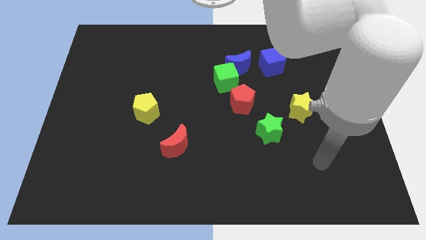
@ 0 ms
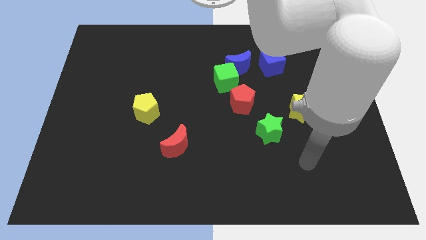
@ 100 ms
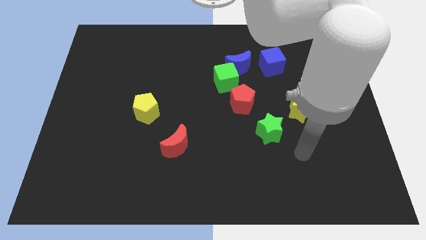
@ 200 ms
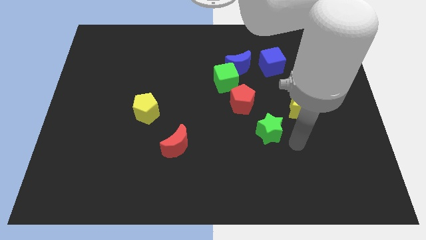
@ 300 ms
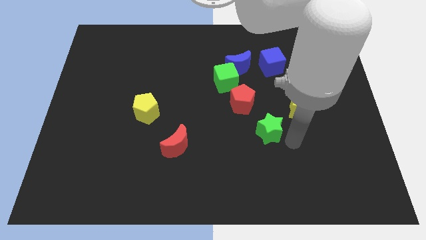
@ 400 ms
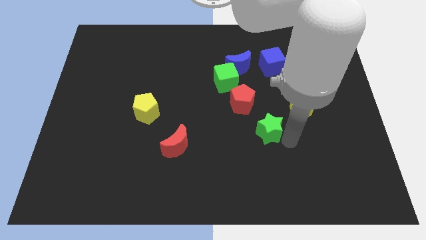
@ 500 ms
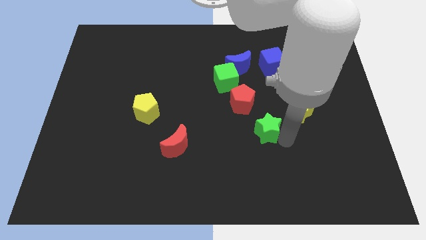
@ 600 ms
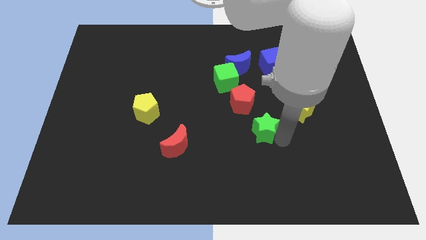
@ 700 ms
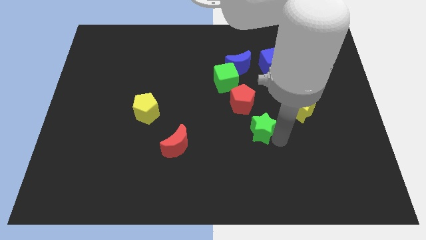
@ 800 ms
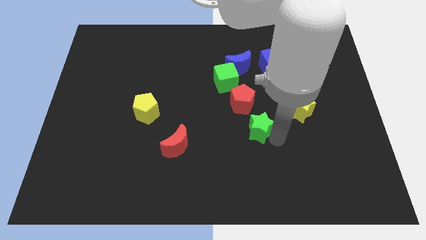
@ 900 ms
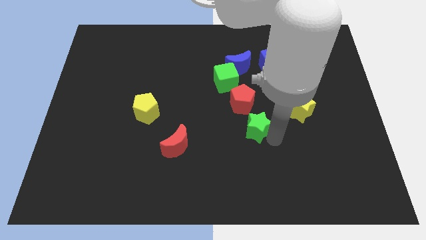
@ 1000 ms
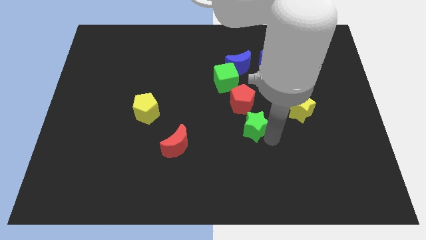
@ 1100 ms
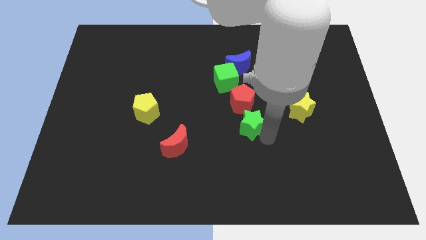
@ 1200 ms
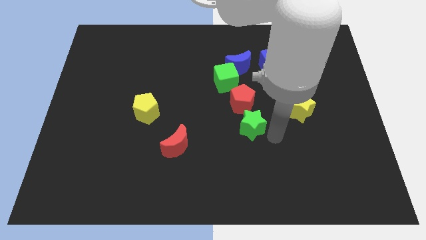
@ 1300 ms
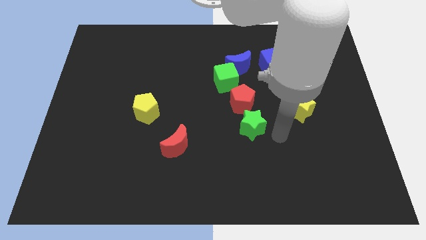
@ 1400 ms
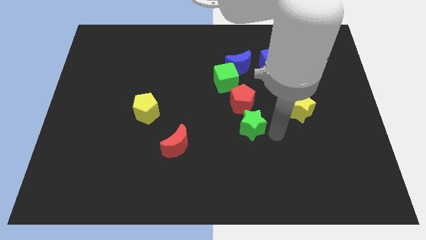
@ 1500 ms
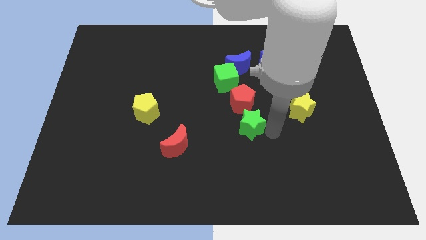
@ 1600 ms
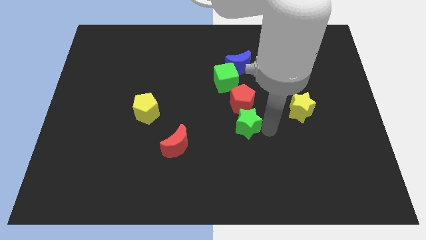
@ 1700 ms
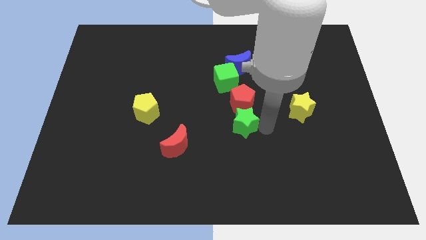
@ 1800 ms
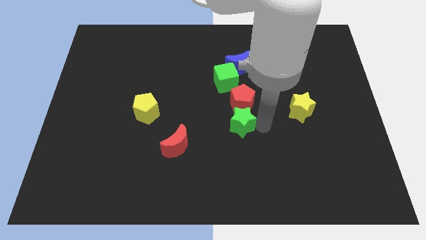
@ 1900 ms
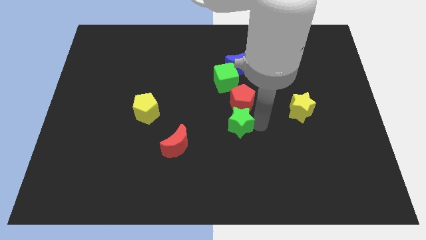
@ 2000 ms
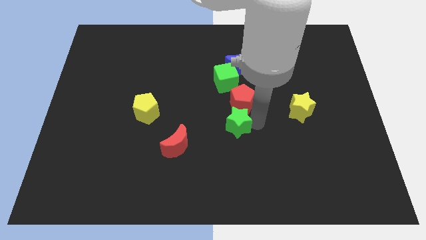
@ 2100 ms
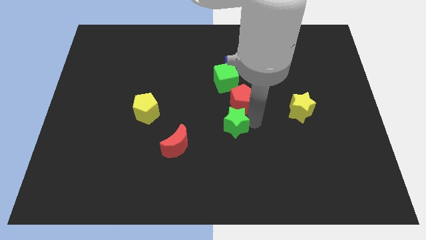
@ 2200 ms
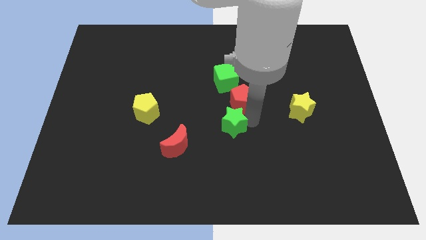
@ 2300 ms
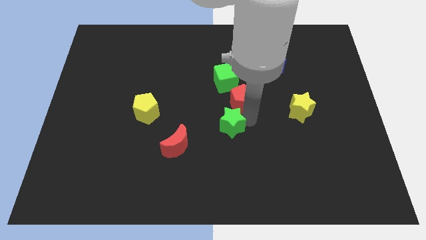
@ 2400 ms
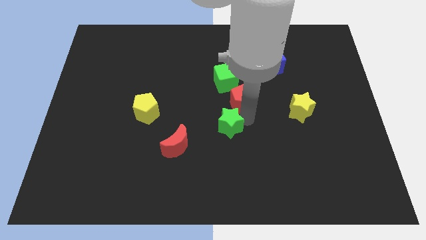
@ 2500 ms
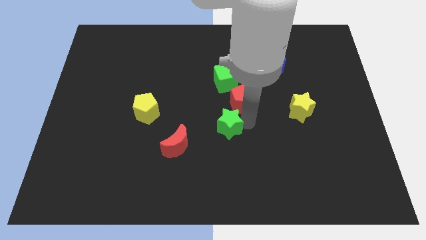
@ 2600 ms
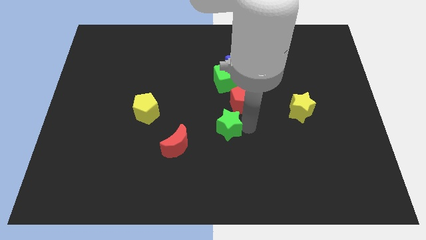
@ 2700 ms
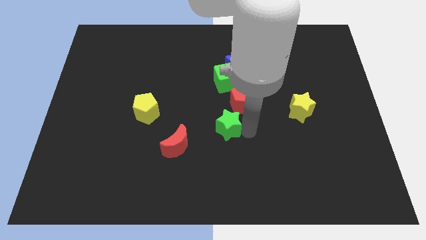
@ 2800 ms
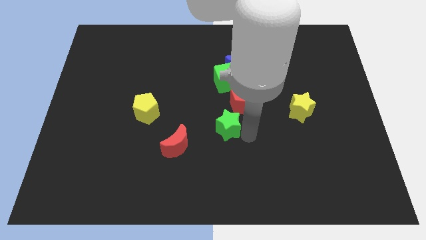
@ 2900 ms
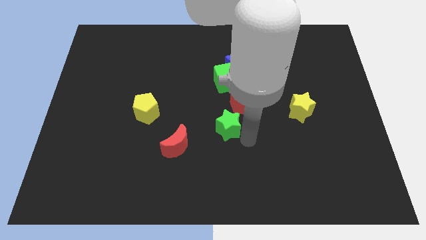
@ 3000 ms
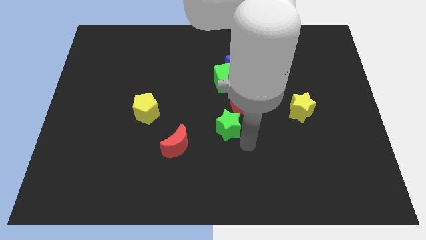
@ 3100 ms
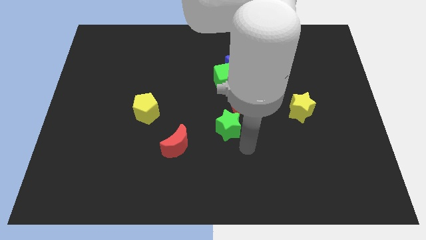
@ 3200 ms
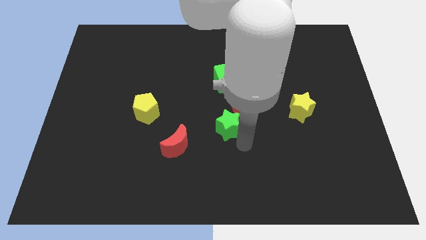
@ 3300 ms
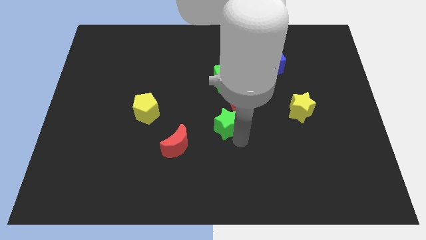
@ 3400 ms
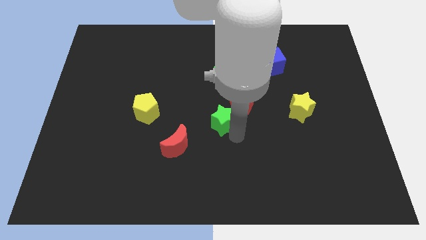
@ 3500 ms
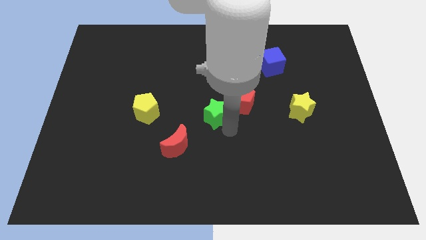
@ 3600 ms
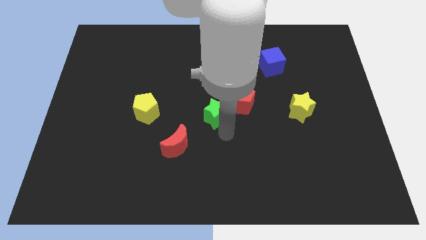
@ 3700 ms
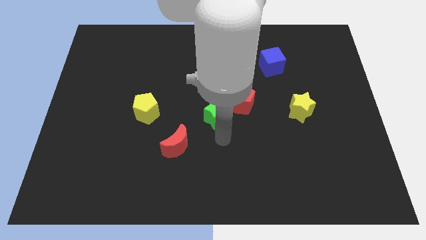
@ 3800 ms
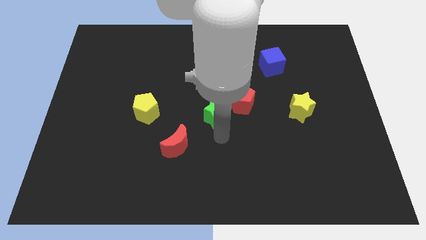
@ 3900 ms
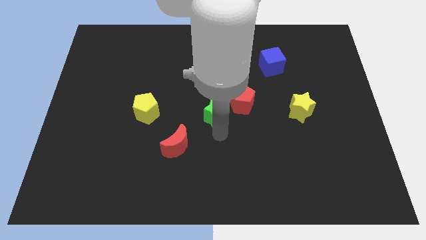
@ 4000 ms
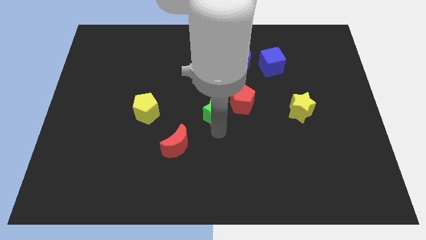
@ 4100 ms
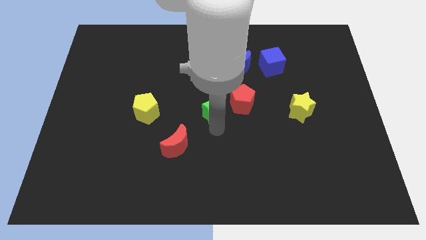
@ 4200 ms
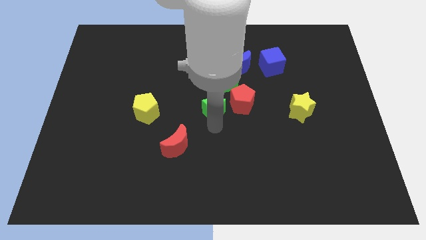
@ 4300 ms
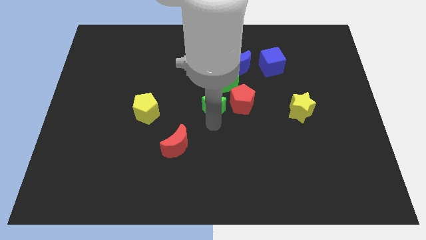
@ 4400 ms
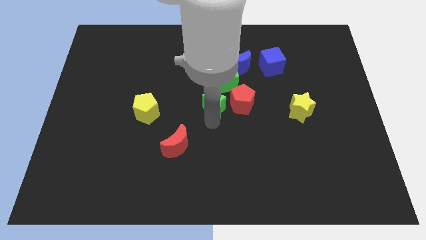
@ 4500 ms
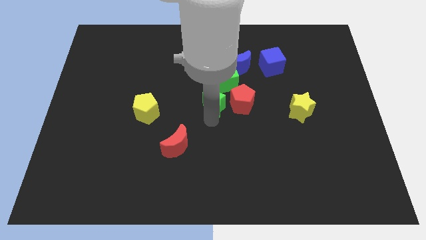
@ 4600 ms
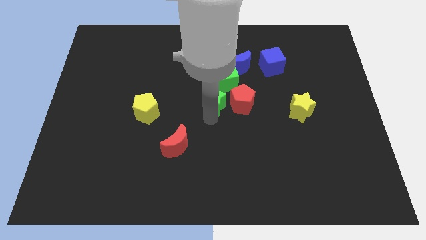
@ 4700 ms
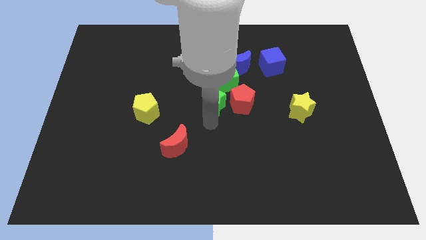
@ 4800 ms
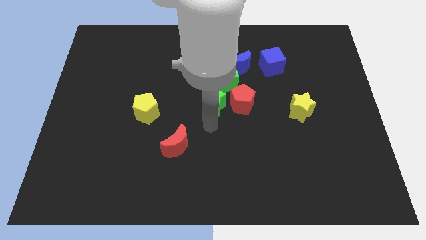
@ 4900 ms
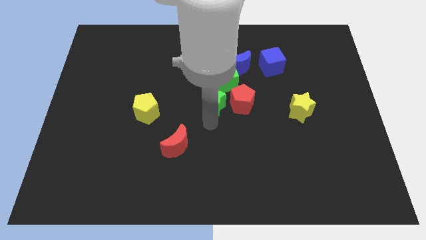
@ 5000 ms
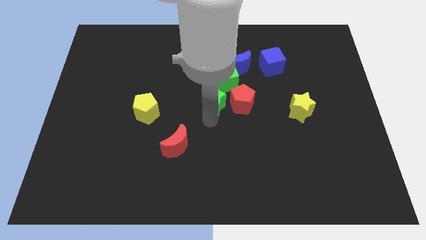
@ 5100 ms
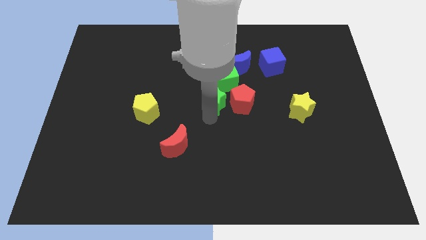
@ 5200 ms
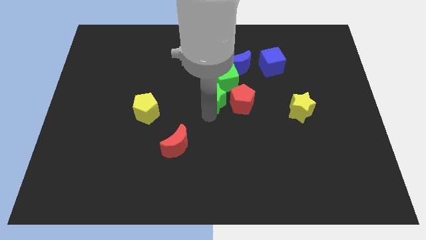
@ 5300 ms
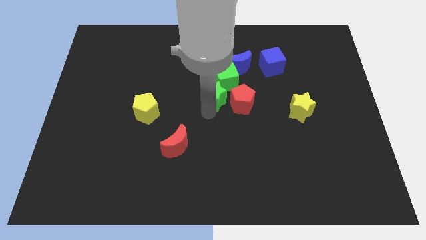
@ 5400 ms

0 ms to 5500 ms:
slide the green star to the bottom left of the blue moon
